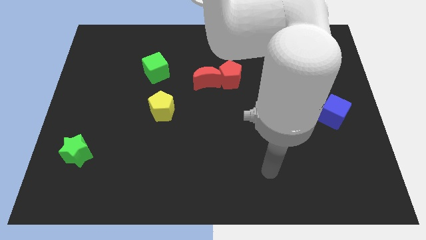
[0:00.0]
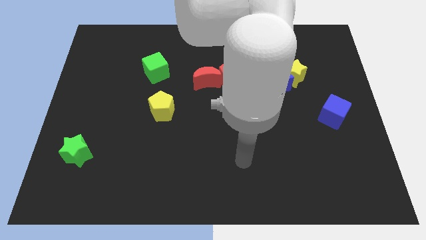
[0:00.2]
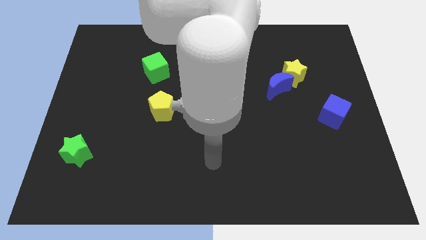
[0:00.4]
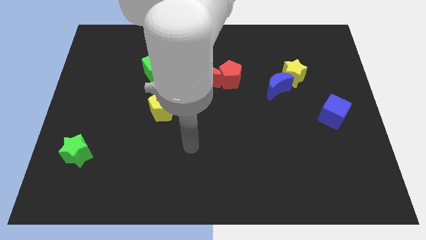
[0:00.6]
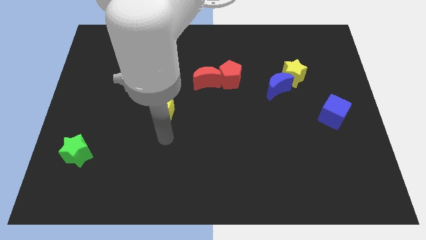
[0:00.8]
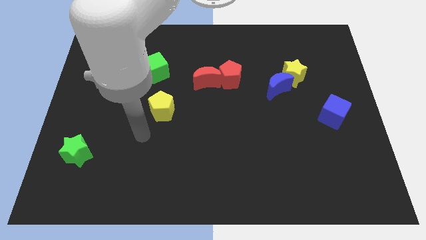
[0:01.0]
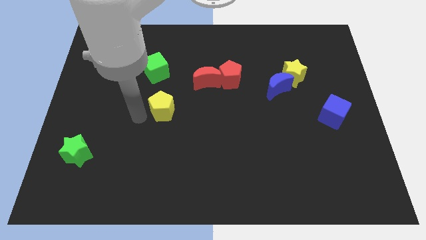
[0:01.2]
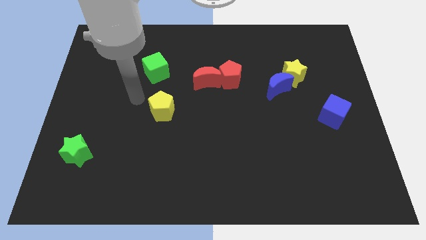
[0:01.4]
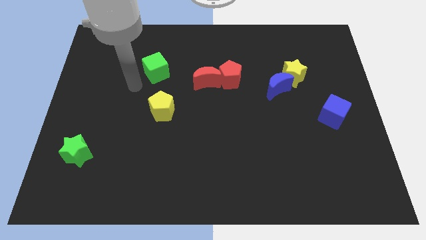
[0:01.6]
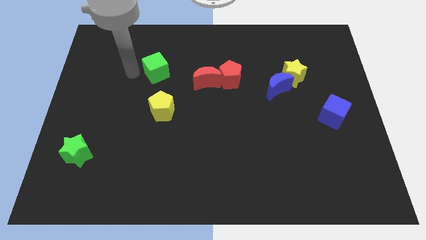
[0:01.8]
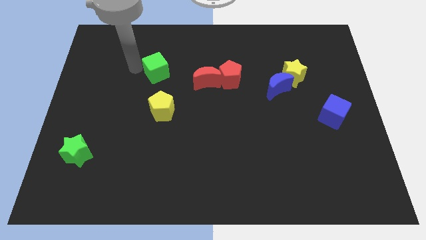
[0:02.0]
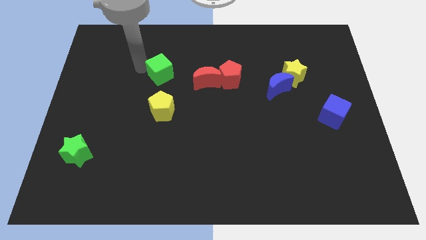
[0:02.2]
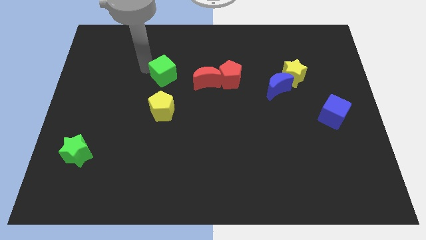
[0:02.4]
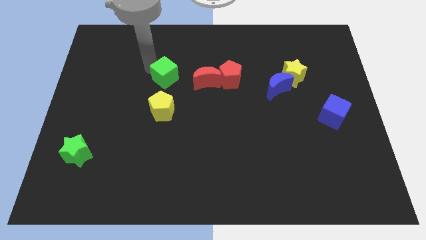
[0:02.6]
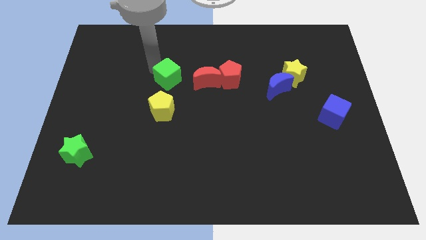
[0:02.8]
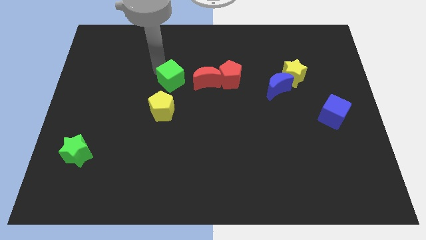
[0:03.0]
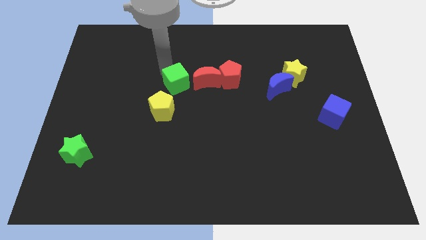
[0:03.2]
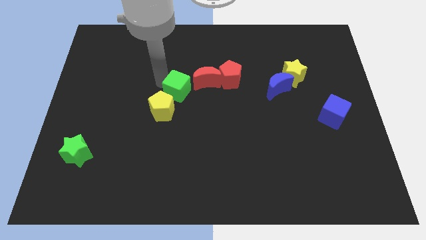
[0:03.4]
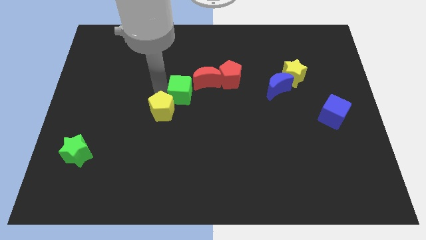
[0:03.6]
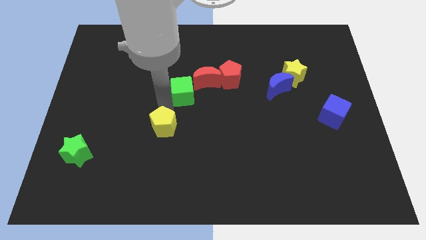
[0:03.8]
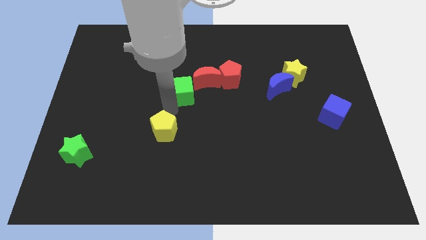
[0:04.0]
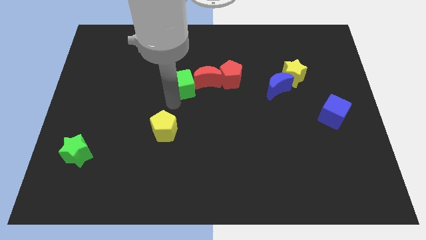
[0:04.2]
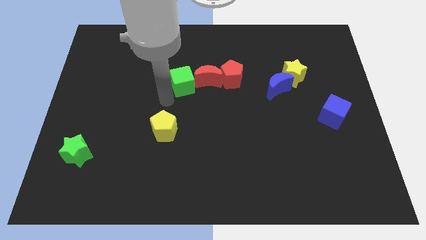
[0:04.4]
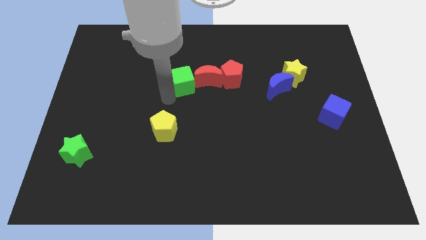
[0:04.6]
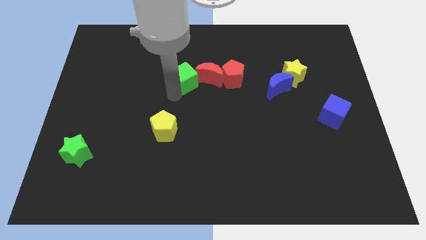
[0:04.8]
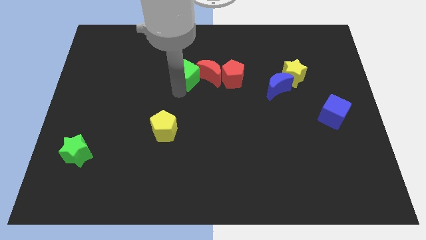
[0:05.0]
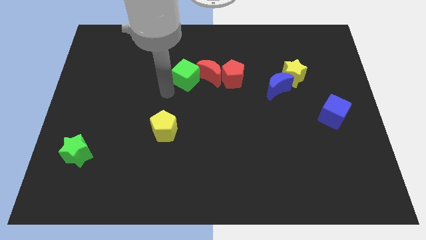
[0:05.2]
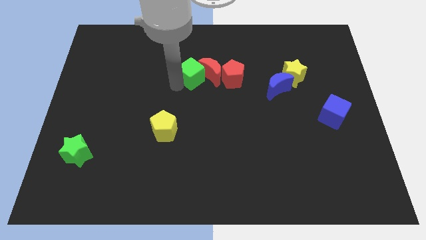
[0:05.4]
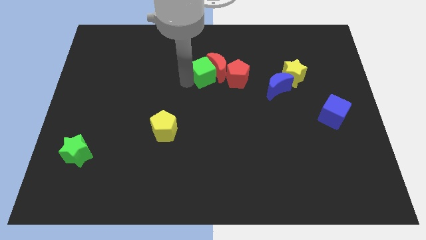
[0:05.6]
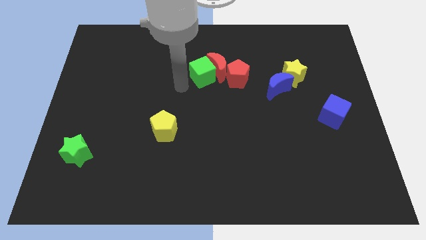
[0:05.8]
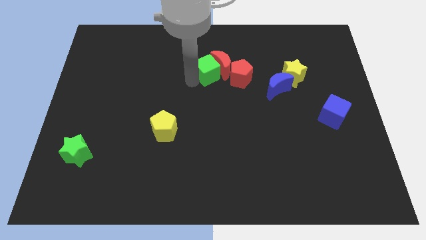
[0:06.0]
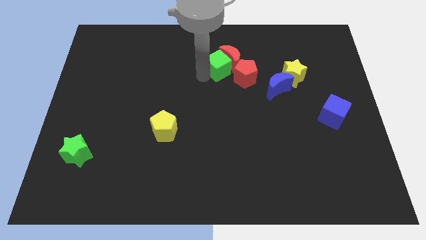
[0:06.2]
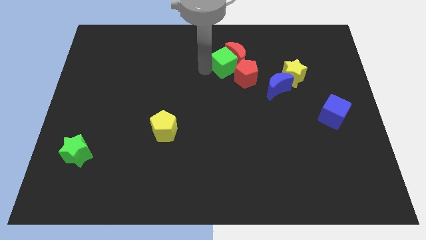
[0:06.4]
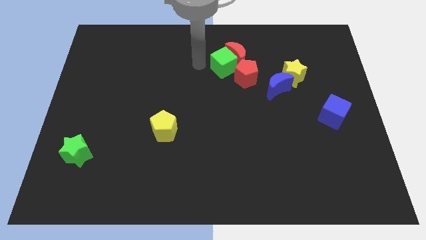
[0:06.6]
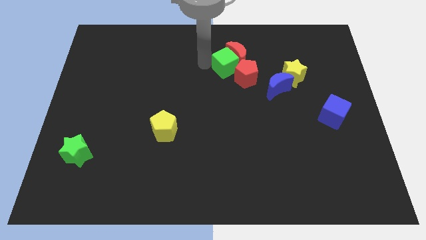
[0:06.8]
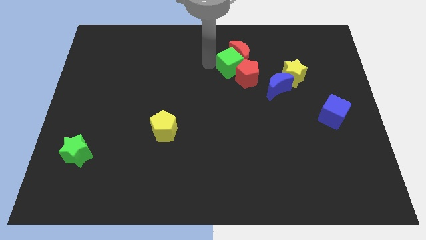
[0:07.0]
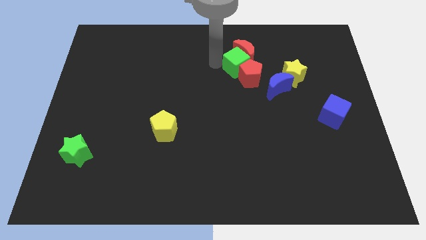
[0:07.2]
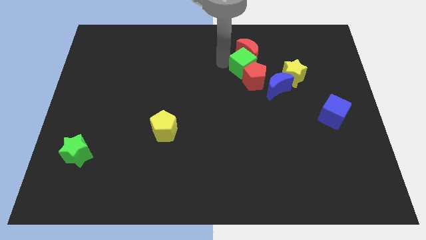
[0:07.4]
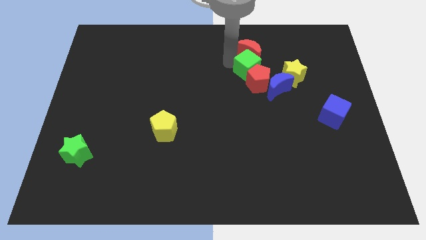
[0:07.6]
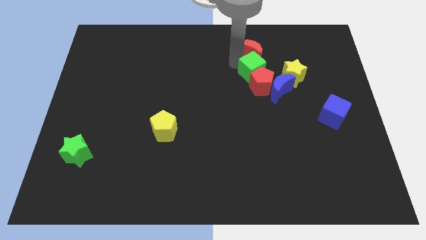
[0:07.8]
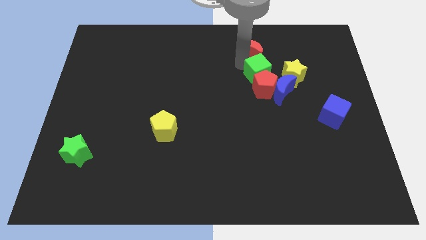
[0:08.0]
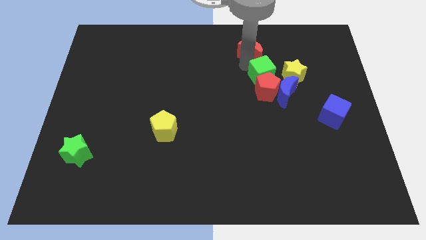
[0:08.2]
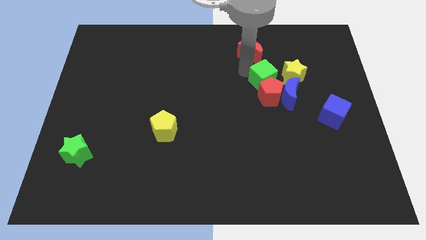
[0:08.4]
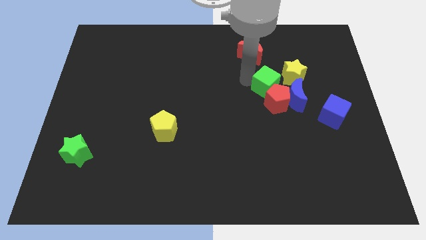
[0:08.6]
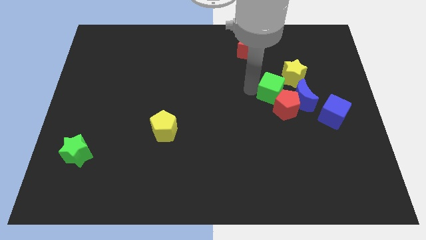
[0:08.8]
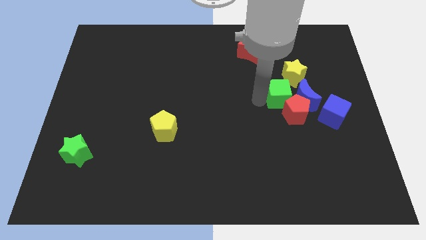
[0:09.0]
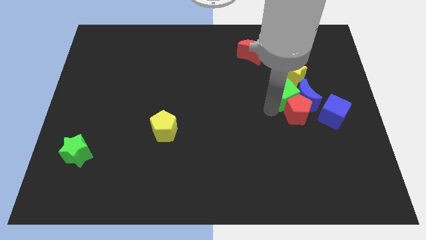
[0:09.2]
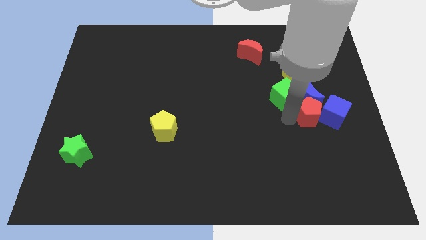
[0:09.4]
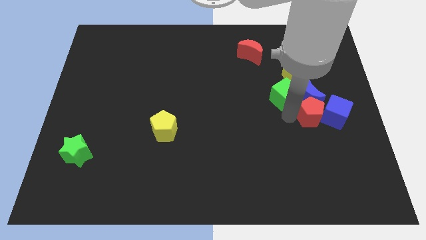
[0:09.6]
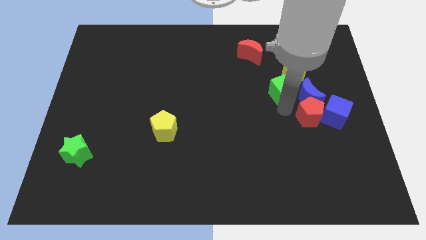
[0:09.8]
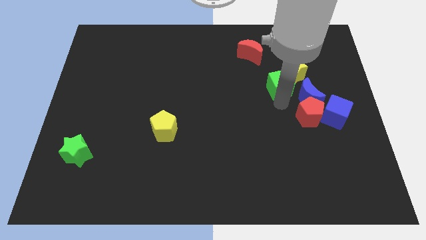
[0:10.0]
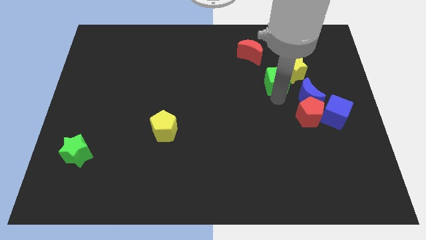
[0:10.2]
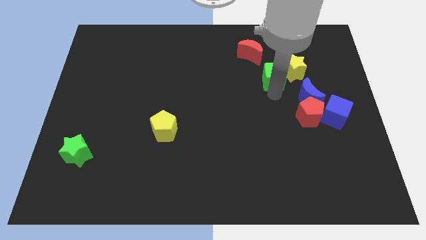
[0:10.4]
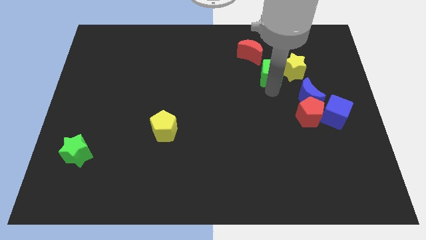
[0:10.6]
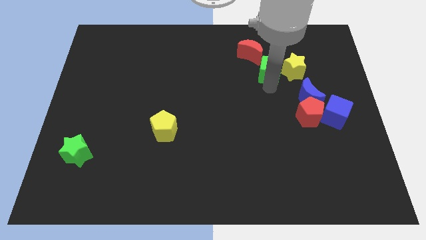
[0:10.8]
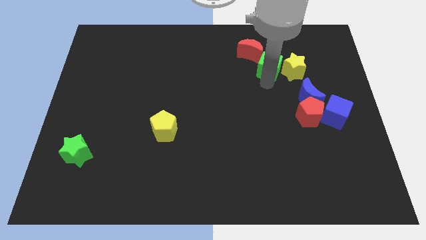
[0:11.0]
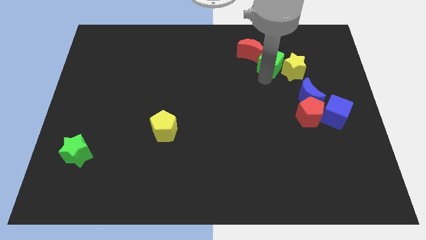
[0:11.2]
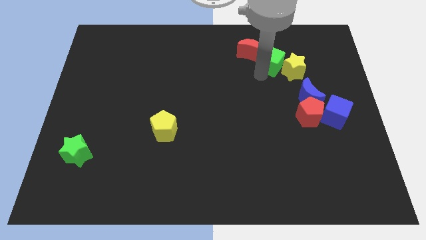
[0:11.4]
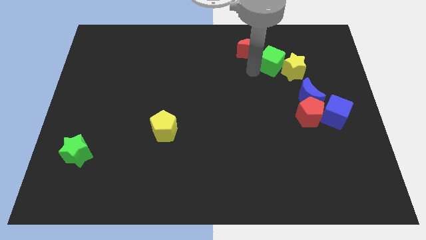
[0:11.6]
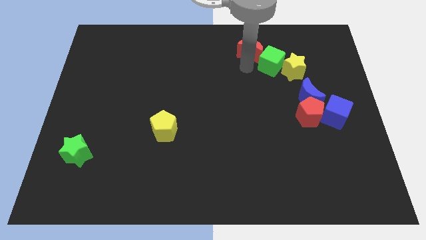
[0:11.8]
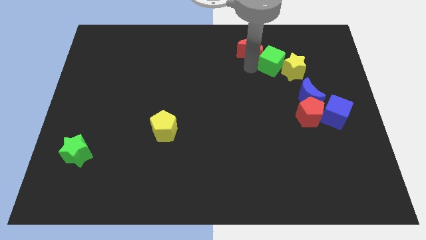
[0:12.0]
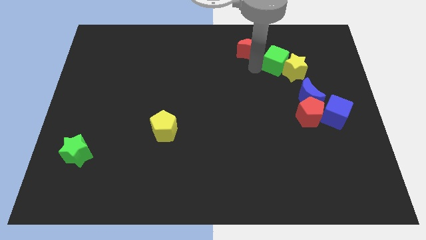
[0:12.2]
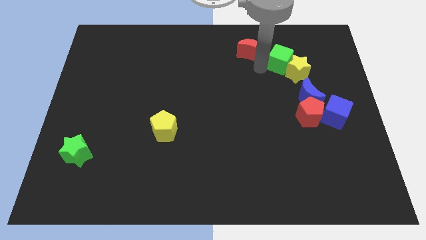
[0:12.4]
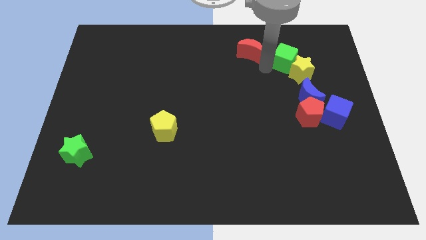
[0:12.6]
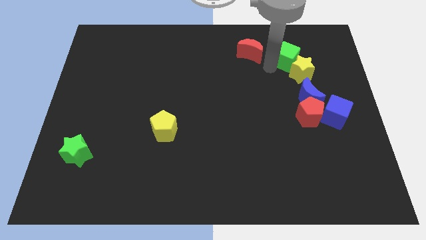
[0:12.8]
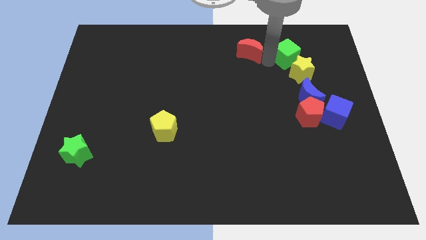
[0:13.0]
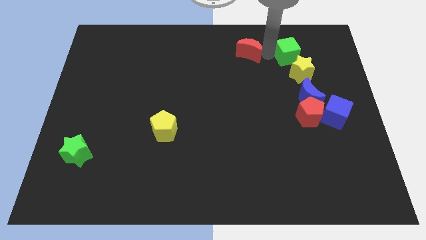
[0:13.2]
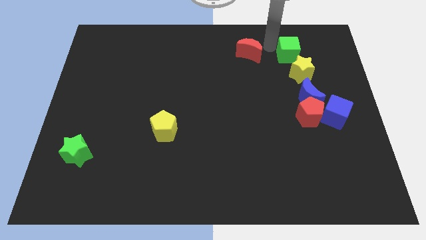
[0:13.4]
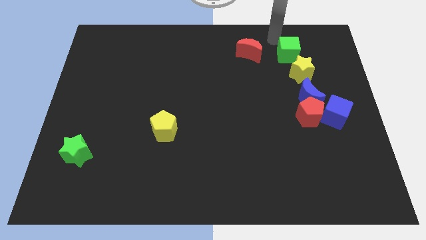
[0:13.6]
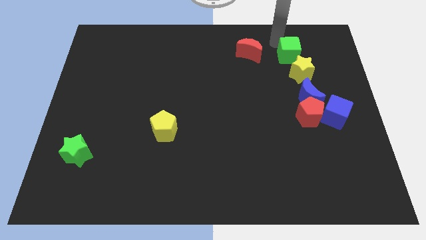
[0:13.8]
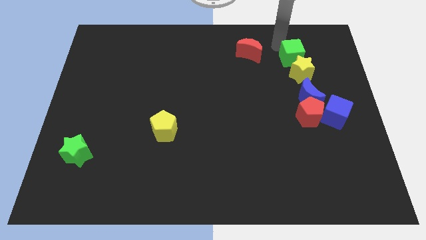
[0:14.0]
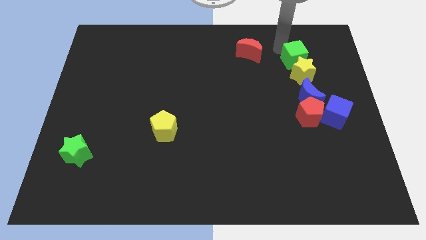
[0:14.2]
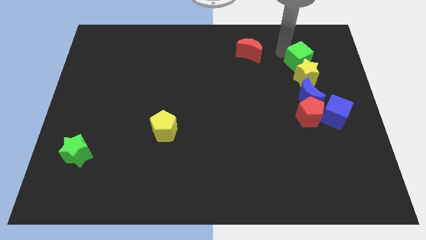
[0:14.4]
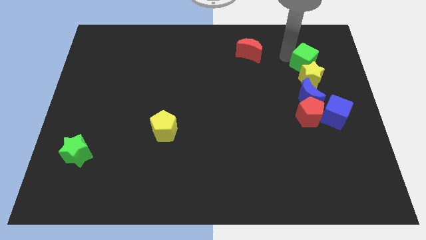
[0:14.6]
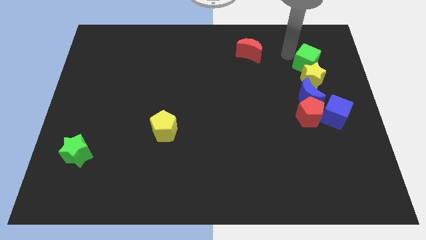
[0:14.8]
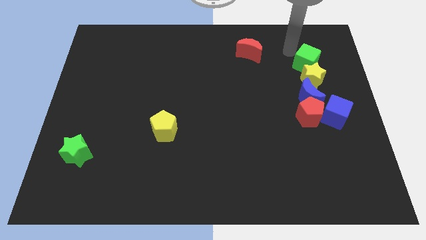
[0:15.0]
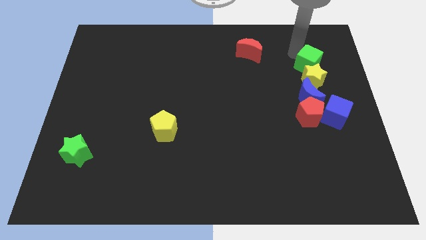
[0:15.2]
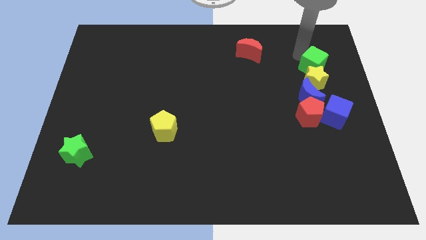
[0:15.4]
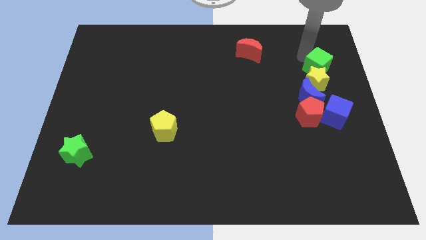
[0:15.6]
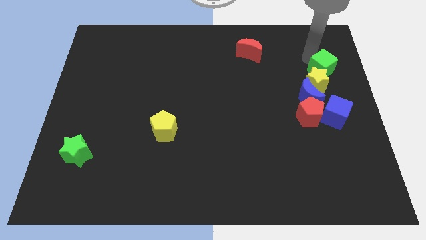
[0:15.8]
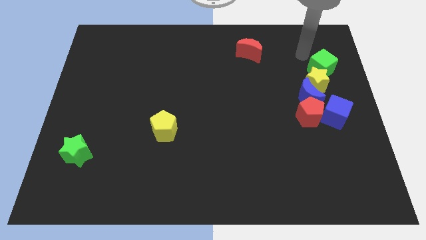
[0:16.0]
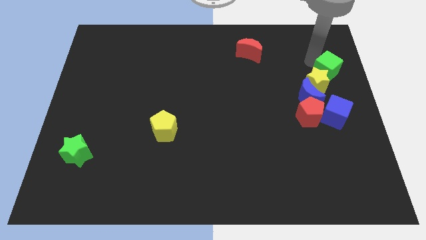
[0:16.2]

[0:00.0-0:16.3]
push the green cube to the right side of the board
